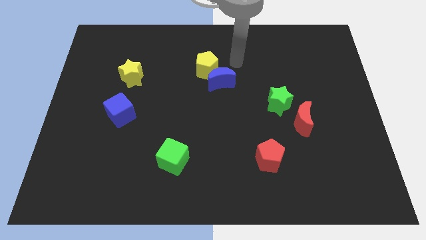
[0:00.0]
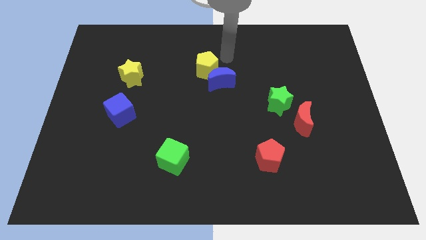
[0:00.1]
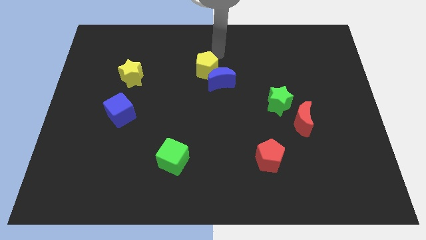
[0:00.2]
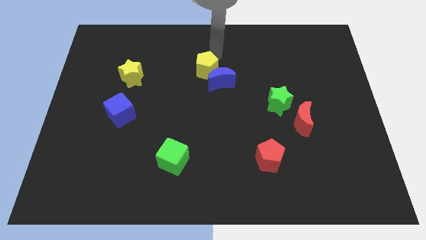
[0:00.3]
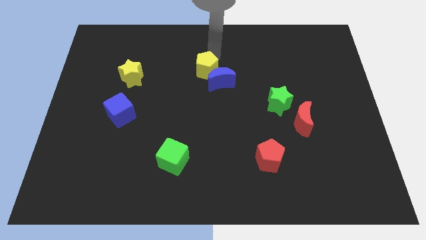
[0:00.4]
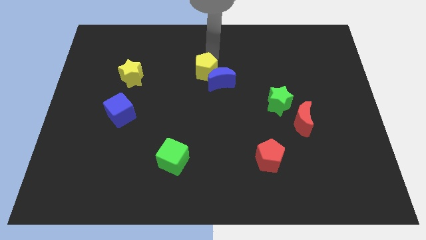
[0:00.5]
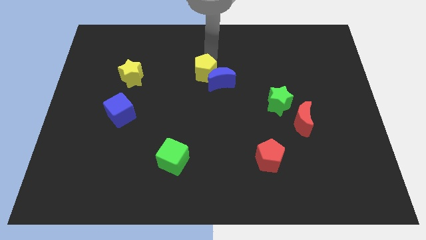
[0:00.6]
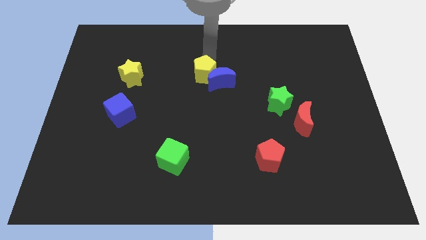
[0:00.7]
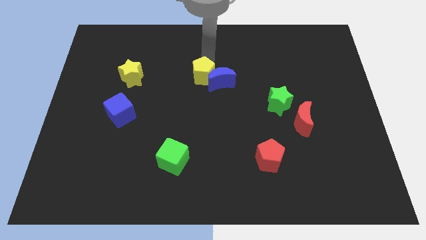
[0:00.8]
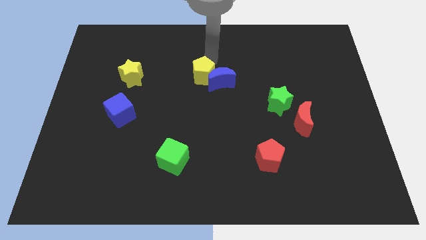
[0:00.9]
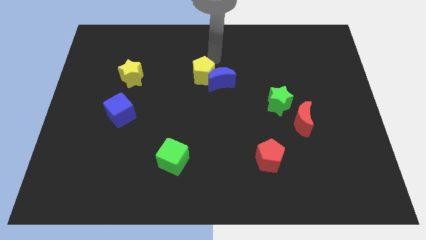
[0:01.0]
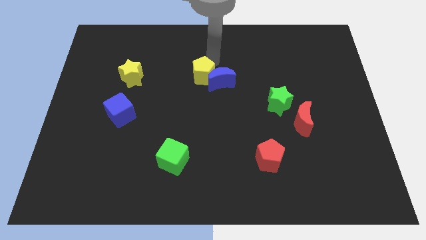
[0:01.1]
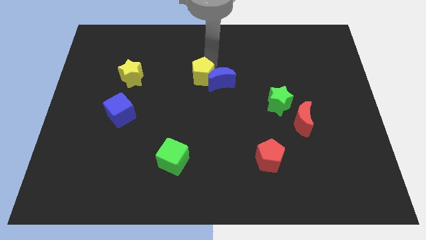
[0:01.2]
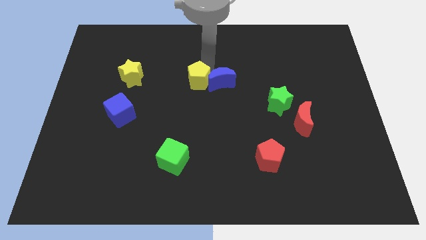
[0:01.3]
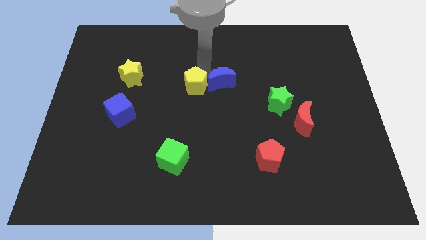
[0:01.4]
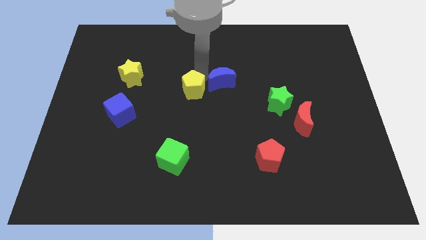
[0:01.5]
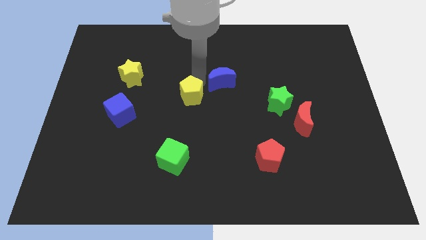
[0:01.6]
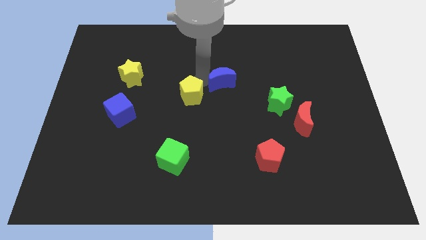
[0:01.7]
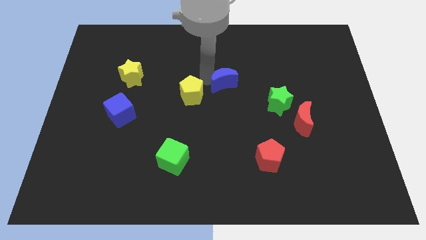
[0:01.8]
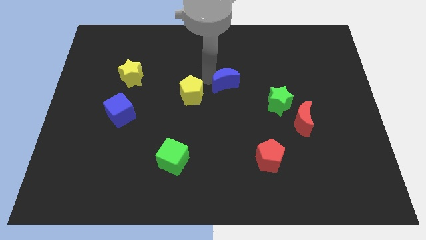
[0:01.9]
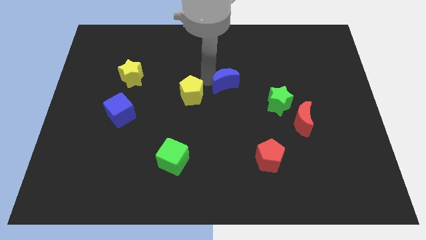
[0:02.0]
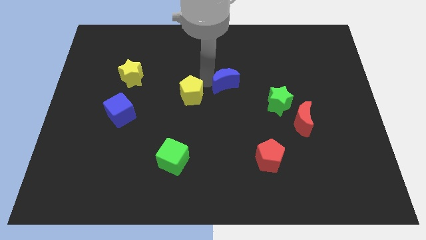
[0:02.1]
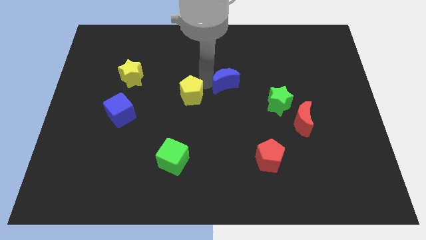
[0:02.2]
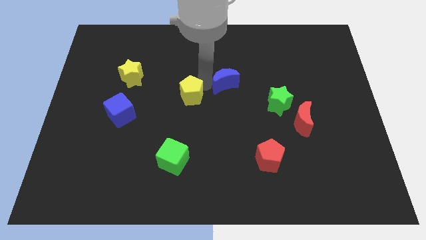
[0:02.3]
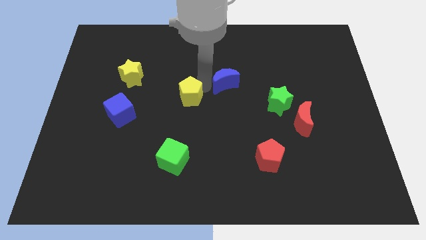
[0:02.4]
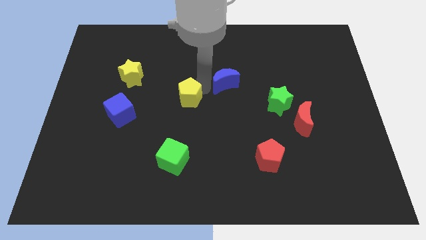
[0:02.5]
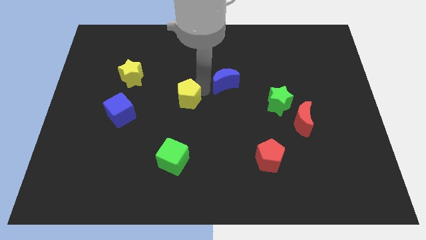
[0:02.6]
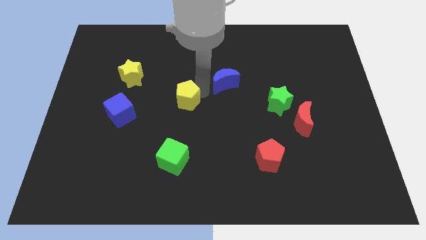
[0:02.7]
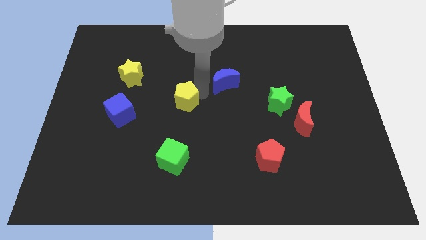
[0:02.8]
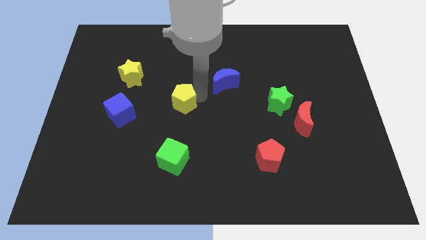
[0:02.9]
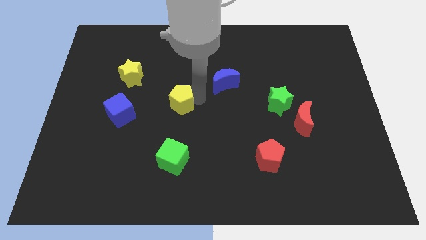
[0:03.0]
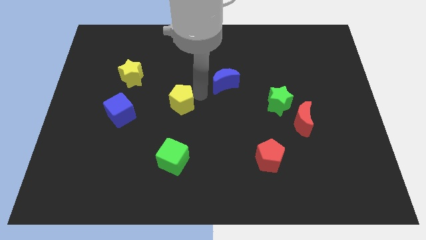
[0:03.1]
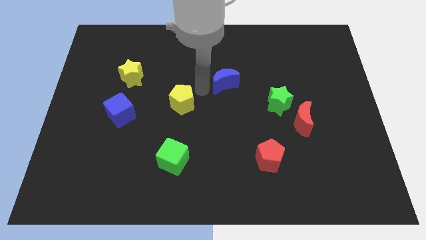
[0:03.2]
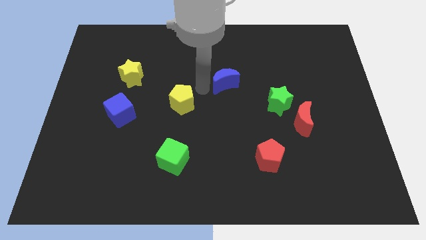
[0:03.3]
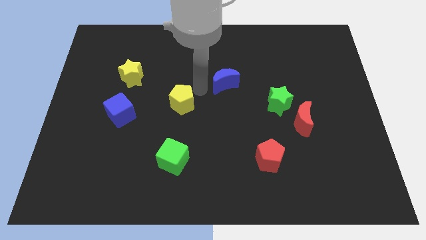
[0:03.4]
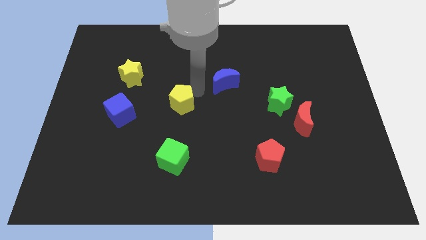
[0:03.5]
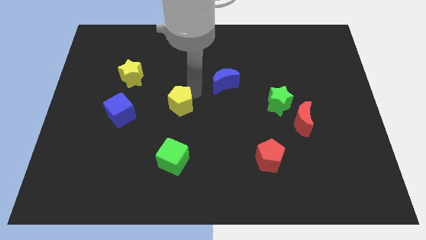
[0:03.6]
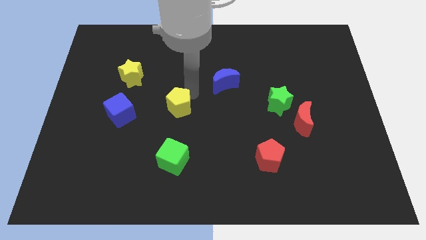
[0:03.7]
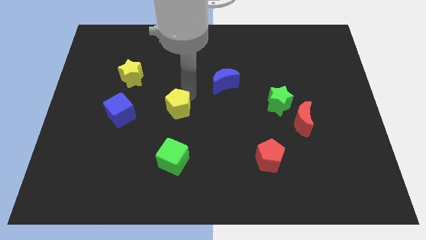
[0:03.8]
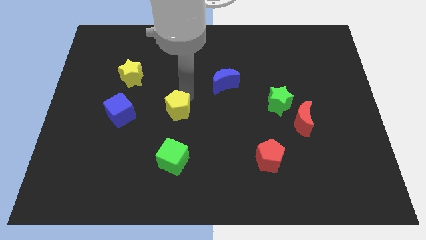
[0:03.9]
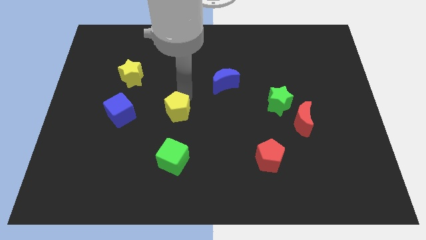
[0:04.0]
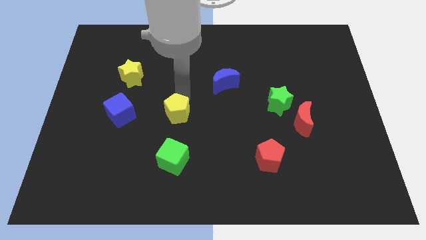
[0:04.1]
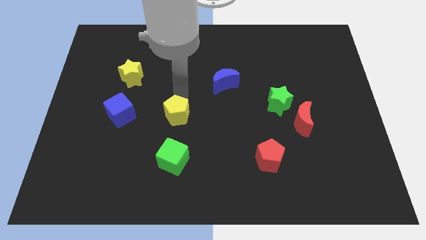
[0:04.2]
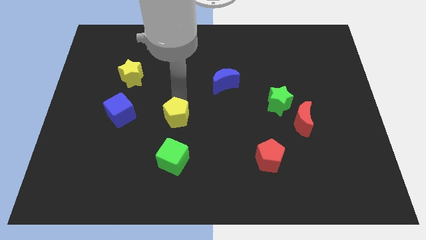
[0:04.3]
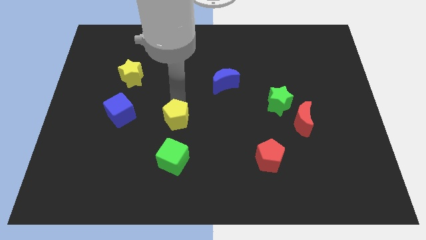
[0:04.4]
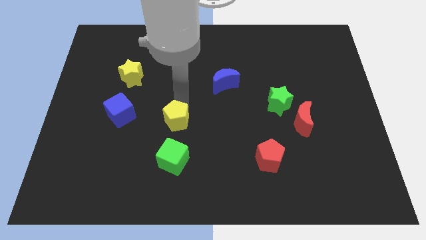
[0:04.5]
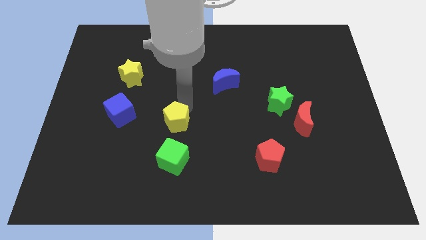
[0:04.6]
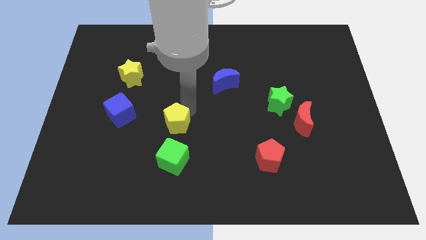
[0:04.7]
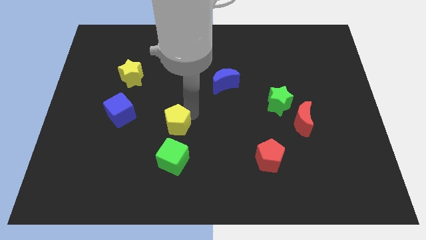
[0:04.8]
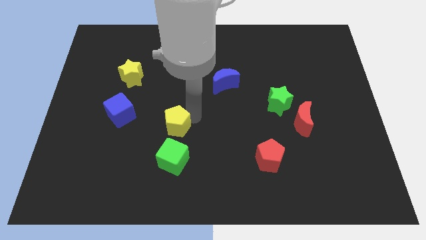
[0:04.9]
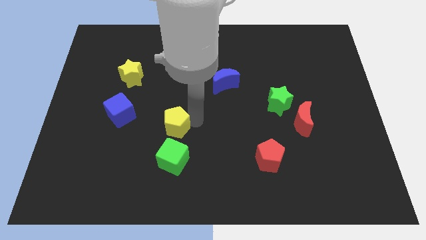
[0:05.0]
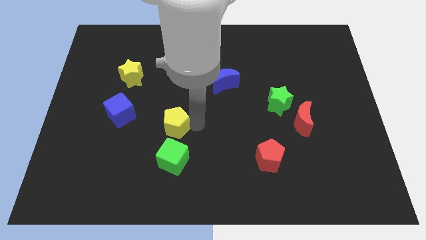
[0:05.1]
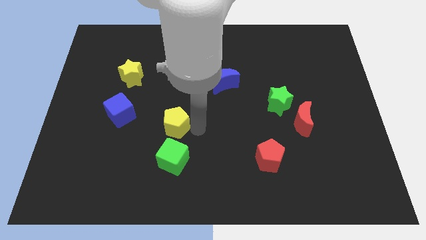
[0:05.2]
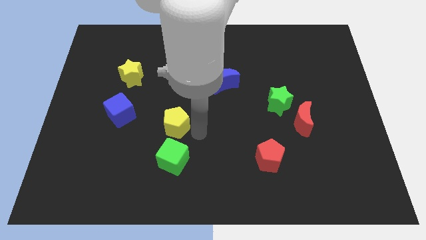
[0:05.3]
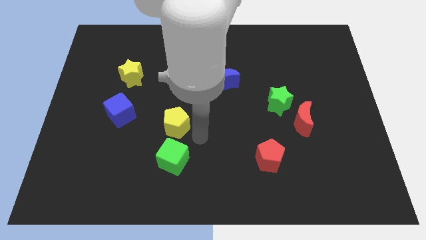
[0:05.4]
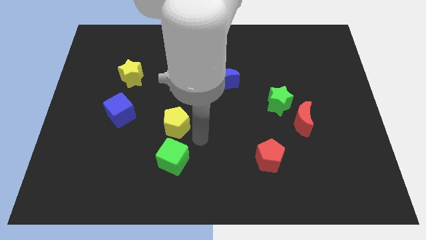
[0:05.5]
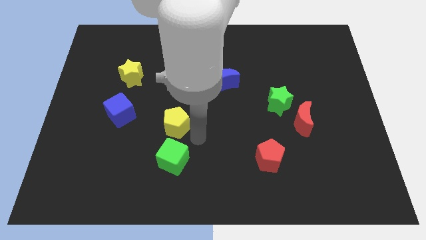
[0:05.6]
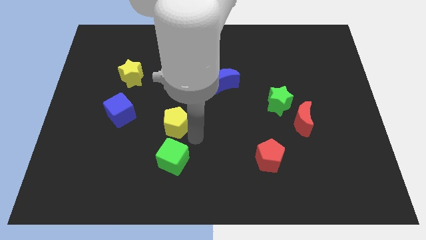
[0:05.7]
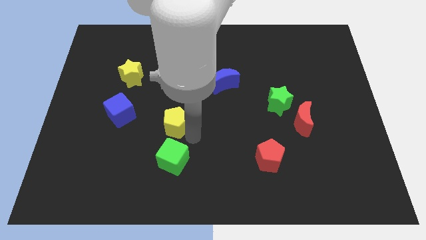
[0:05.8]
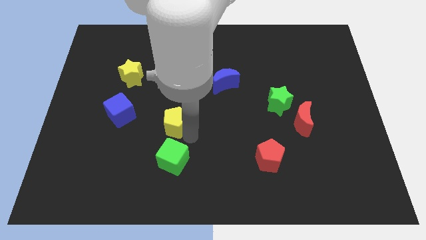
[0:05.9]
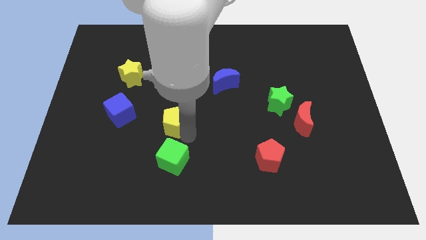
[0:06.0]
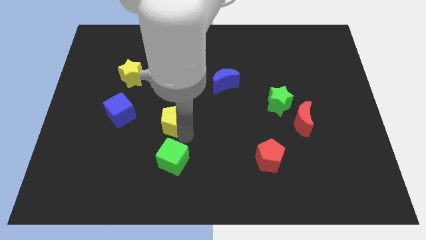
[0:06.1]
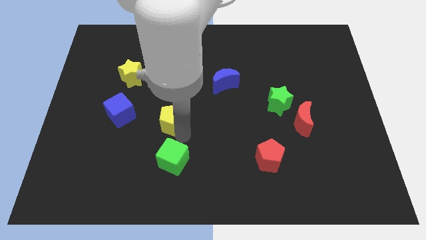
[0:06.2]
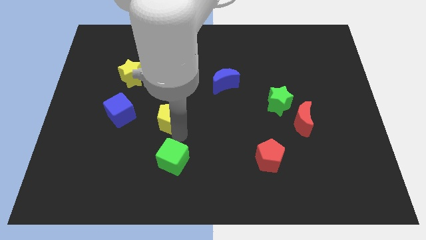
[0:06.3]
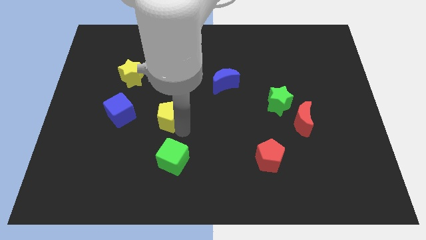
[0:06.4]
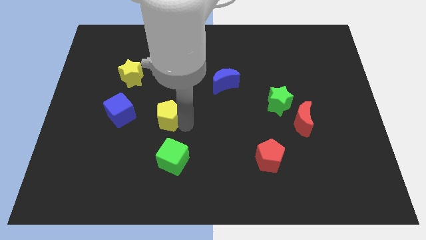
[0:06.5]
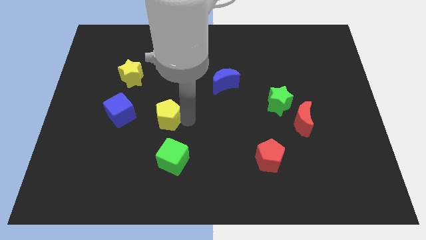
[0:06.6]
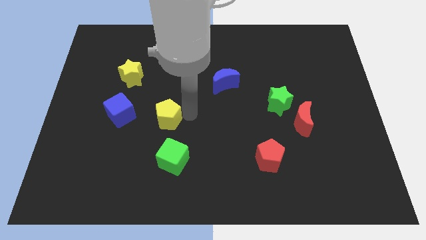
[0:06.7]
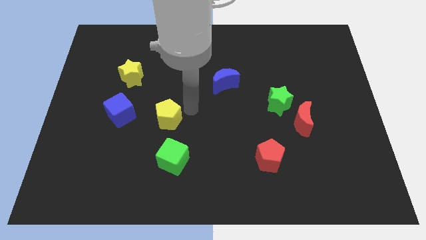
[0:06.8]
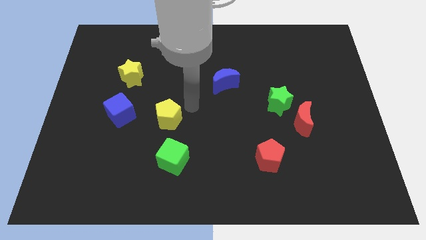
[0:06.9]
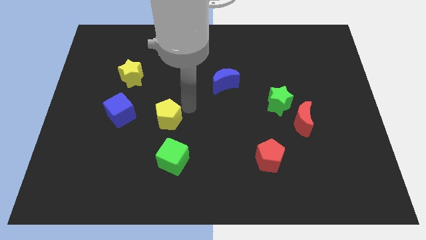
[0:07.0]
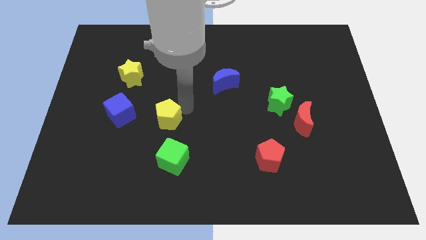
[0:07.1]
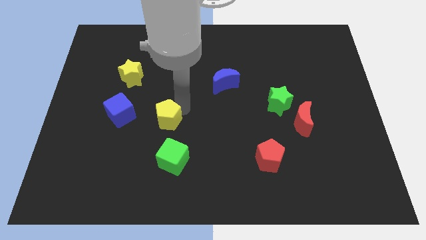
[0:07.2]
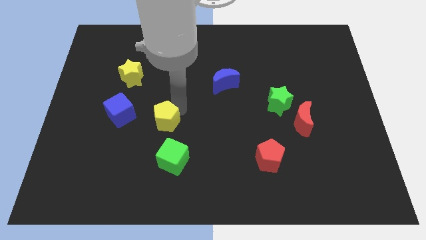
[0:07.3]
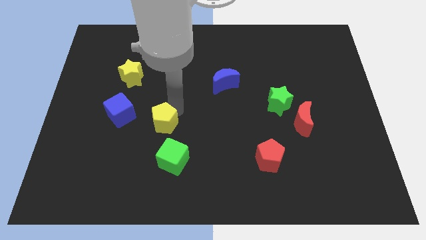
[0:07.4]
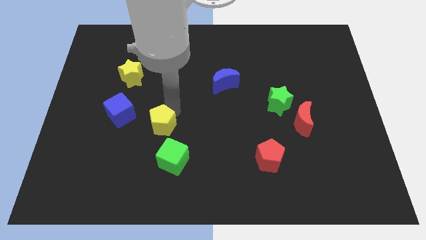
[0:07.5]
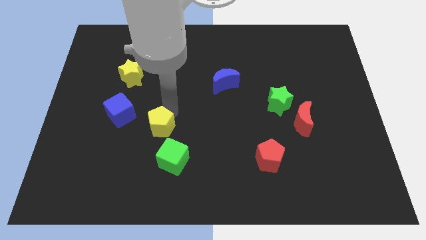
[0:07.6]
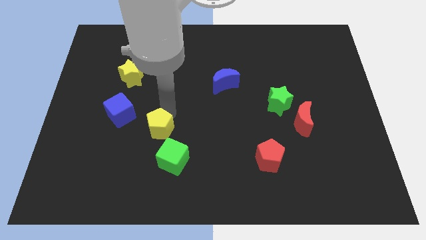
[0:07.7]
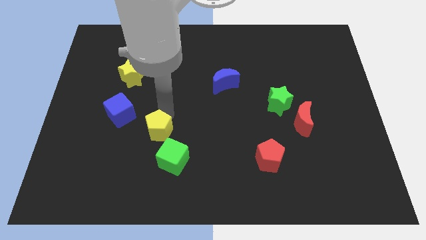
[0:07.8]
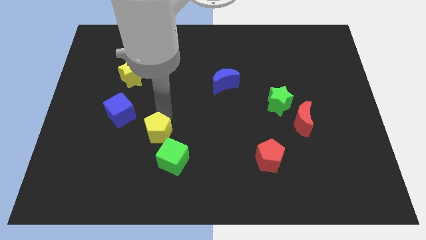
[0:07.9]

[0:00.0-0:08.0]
push the yellow pentagon downwards and then left

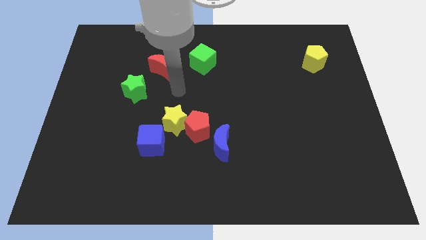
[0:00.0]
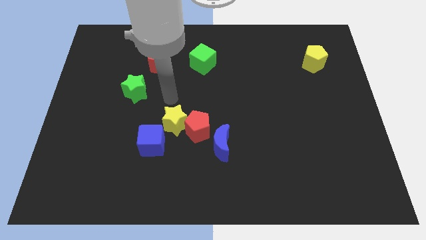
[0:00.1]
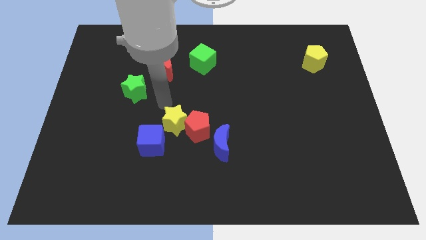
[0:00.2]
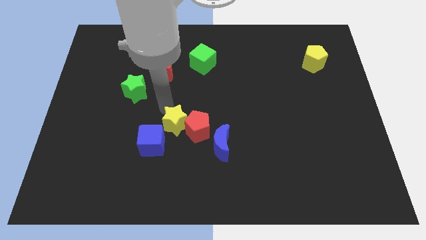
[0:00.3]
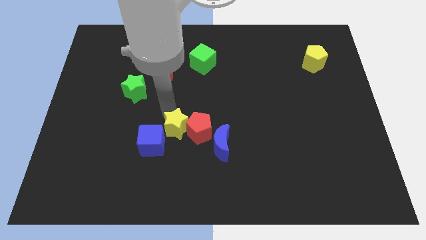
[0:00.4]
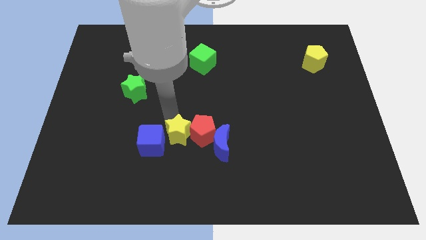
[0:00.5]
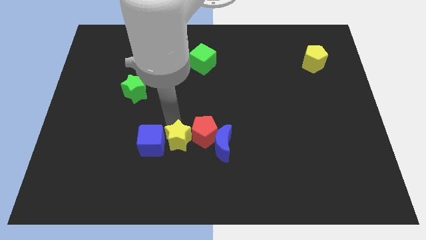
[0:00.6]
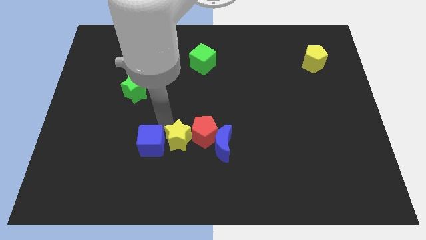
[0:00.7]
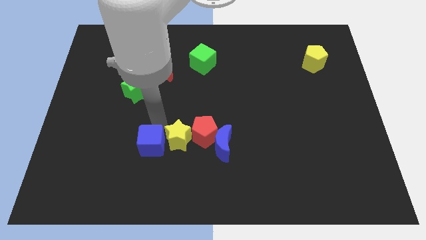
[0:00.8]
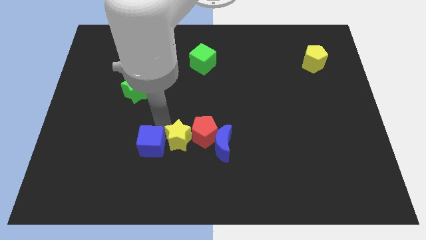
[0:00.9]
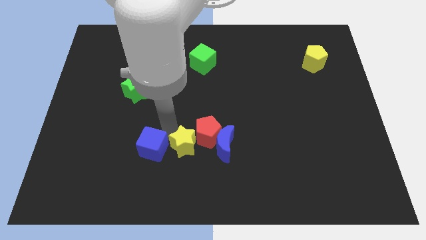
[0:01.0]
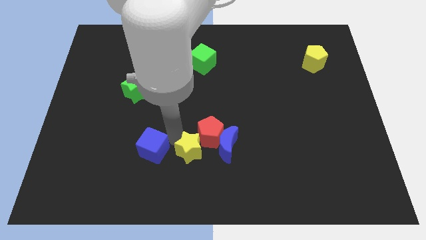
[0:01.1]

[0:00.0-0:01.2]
slide the yellow star a bit down and then right
